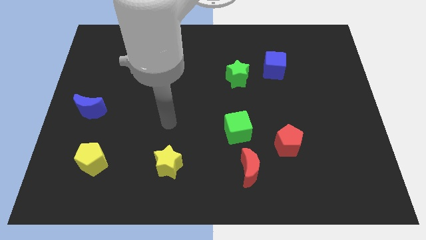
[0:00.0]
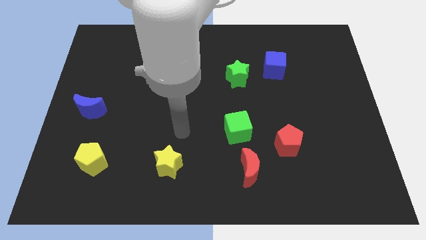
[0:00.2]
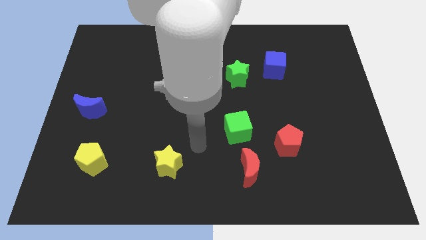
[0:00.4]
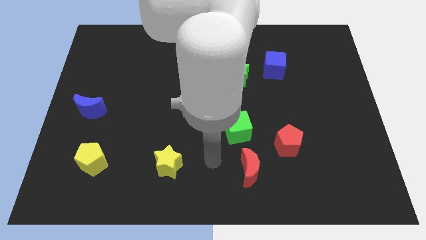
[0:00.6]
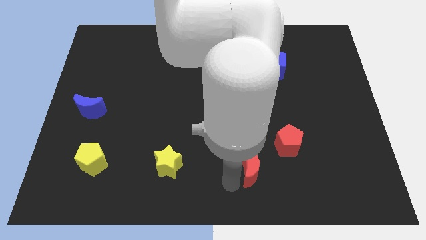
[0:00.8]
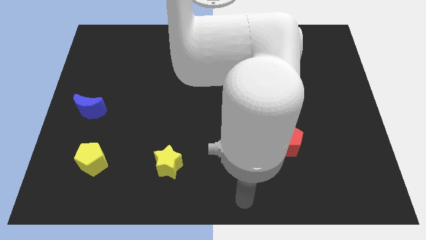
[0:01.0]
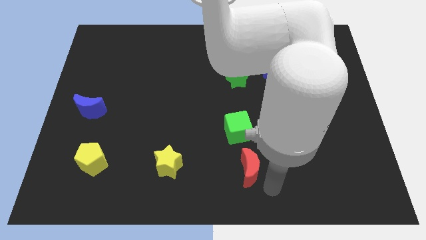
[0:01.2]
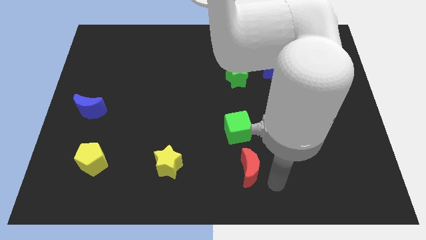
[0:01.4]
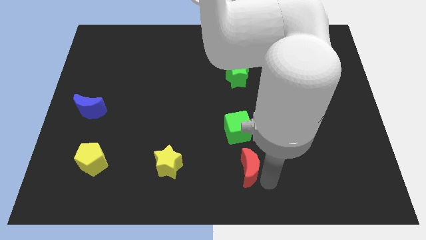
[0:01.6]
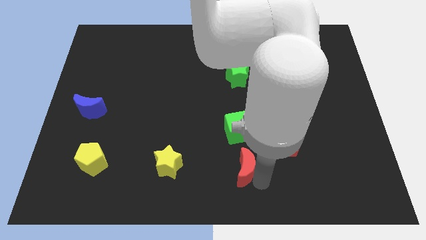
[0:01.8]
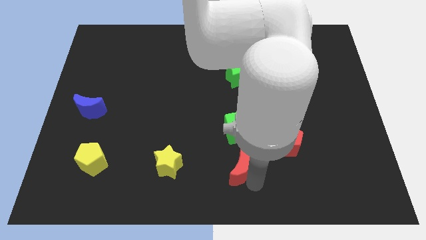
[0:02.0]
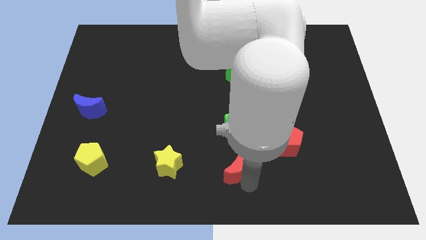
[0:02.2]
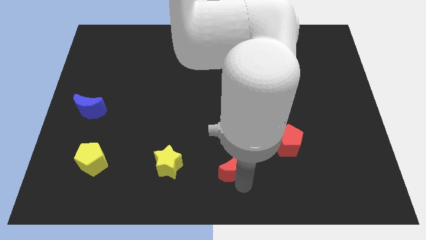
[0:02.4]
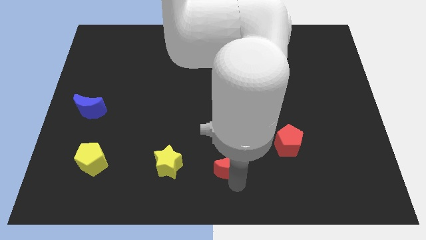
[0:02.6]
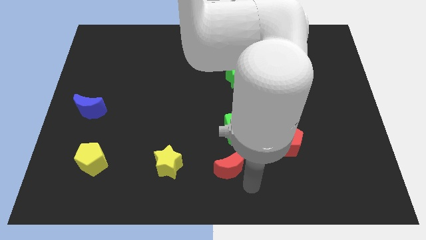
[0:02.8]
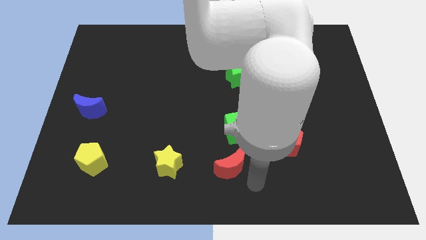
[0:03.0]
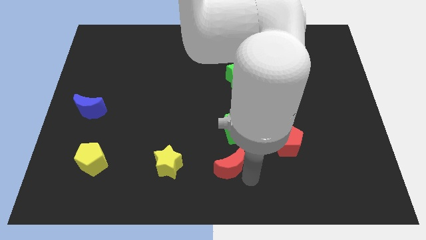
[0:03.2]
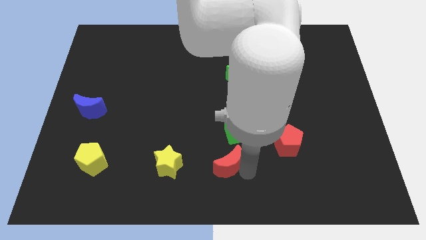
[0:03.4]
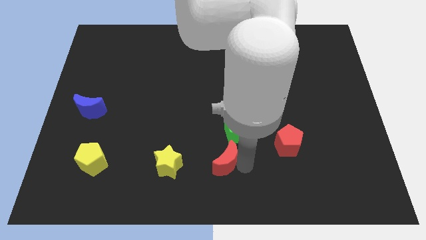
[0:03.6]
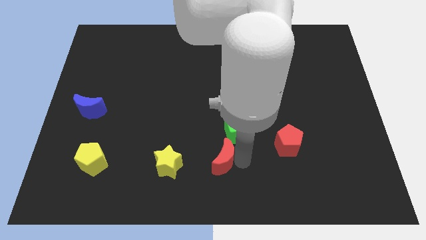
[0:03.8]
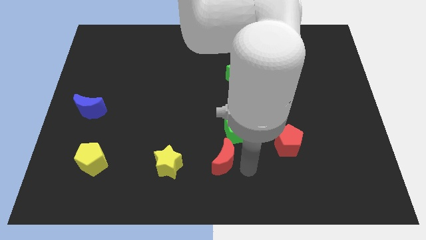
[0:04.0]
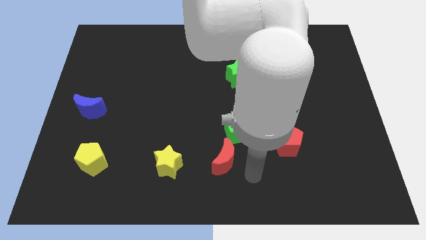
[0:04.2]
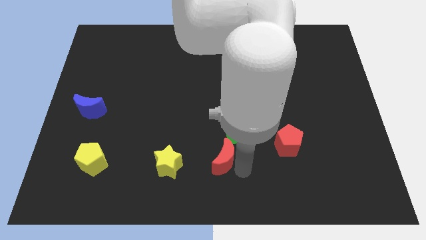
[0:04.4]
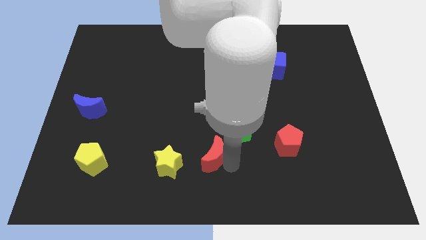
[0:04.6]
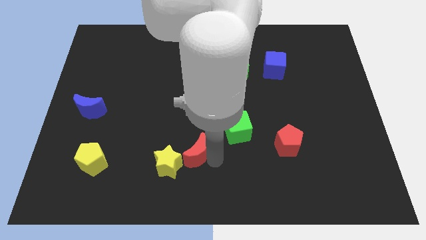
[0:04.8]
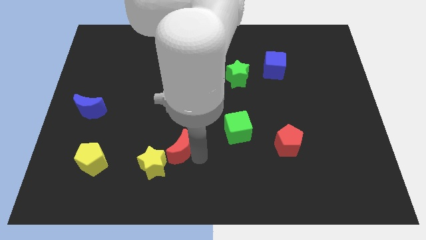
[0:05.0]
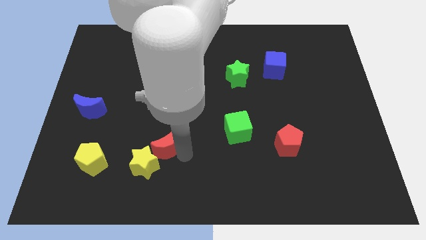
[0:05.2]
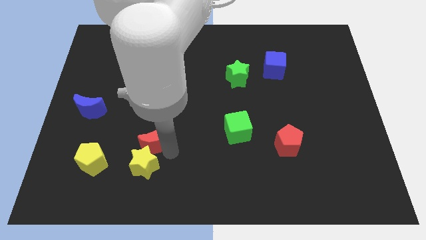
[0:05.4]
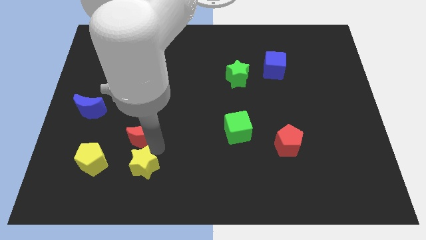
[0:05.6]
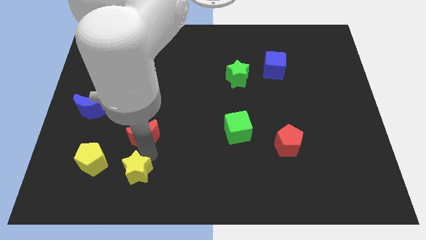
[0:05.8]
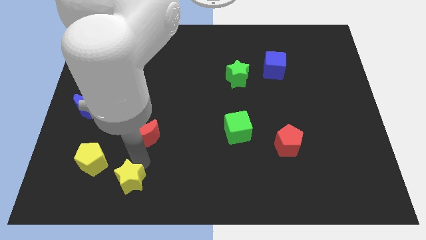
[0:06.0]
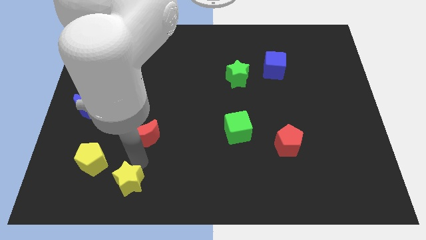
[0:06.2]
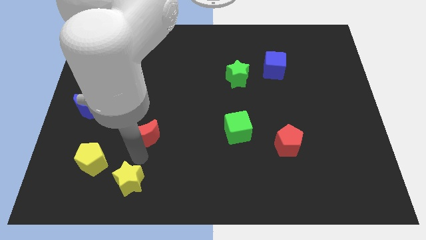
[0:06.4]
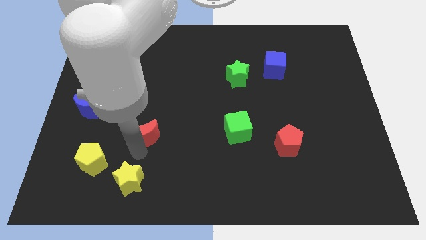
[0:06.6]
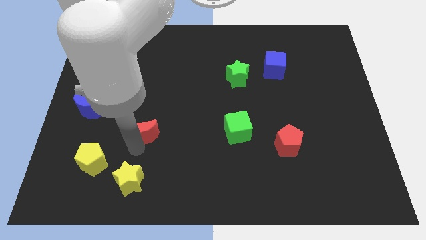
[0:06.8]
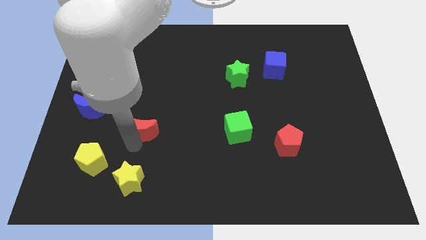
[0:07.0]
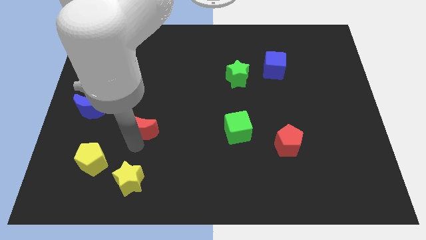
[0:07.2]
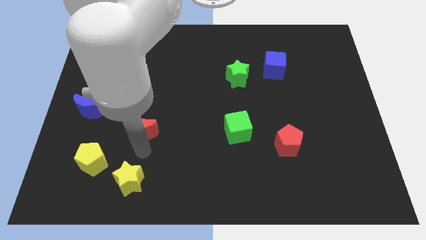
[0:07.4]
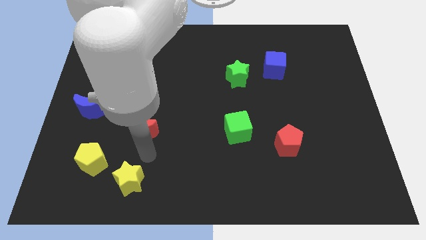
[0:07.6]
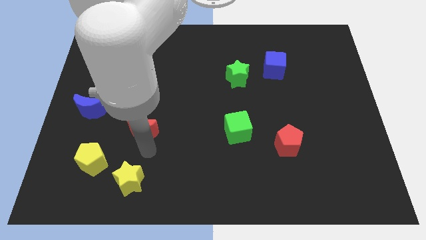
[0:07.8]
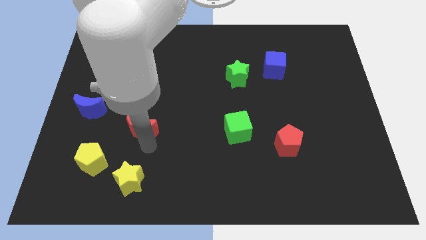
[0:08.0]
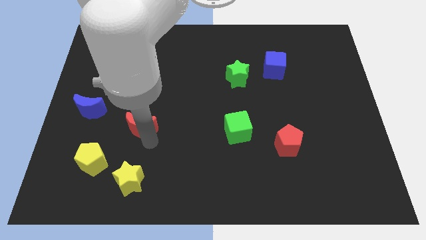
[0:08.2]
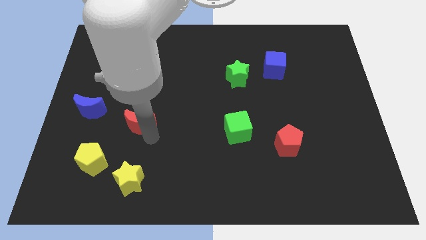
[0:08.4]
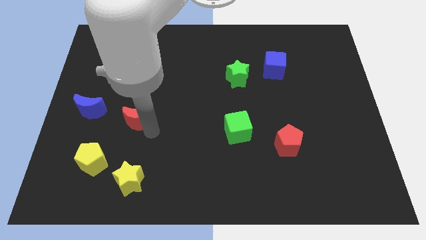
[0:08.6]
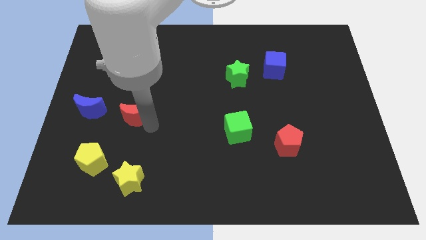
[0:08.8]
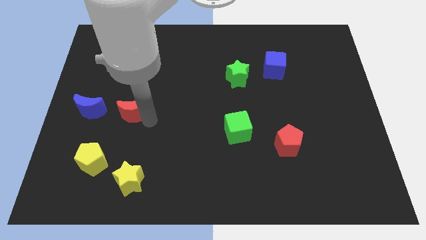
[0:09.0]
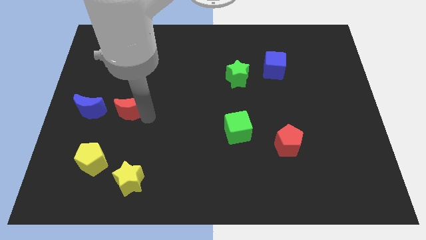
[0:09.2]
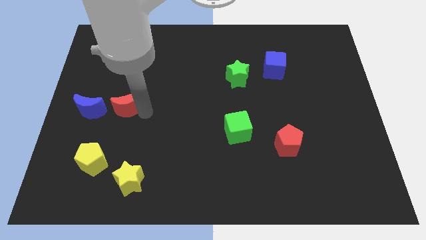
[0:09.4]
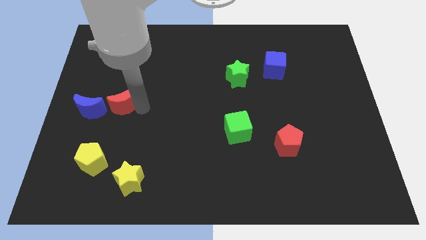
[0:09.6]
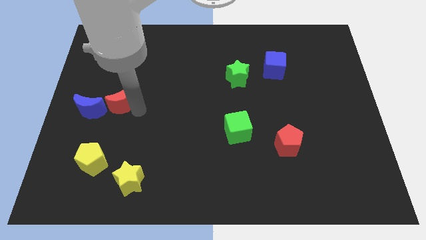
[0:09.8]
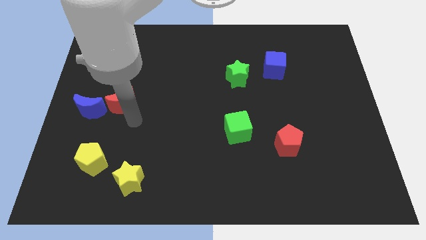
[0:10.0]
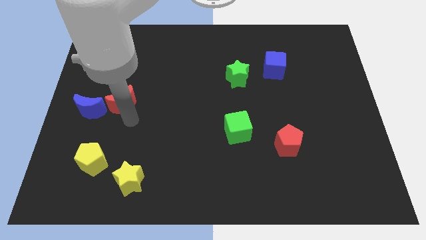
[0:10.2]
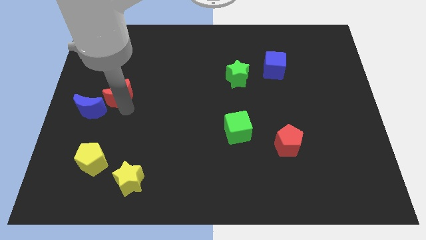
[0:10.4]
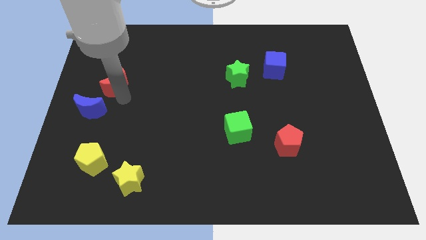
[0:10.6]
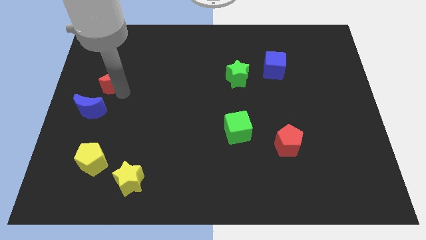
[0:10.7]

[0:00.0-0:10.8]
push the red moon above the blue moon

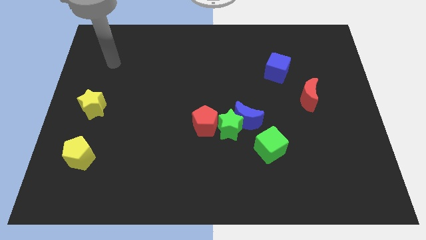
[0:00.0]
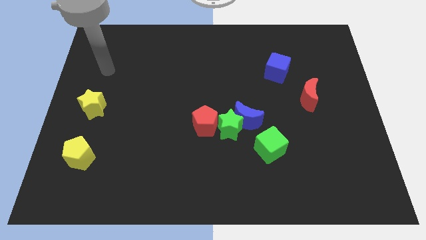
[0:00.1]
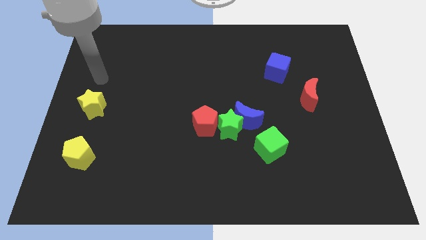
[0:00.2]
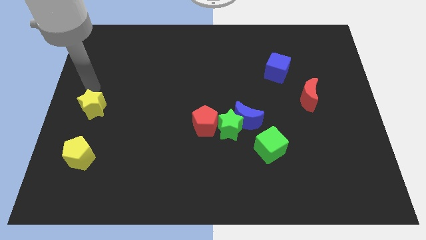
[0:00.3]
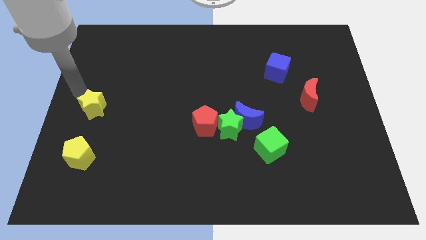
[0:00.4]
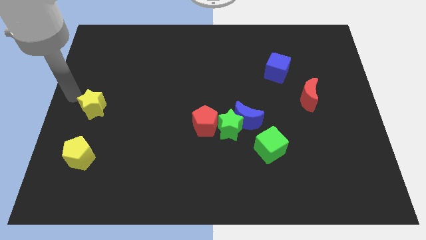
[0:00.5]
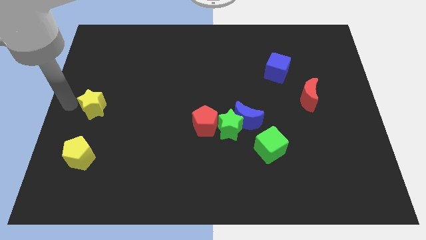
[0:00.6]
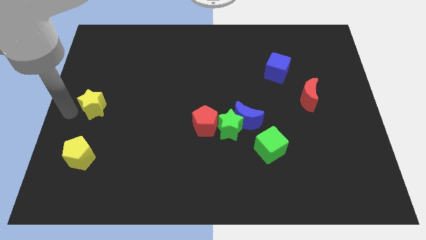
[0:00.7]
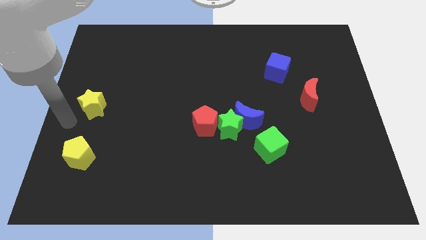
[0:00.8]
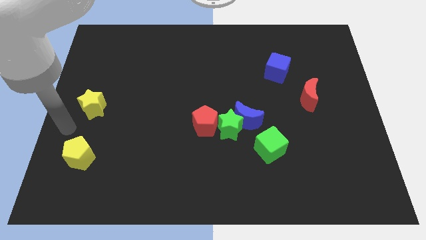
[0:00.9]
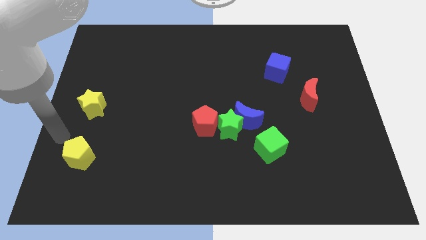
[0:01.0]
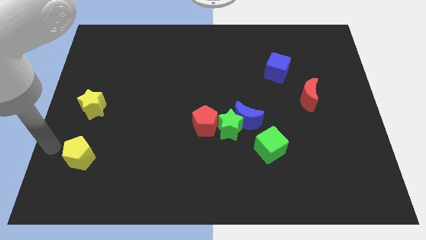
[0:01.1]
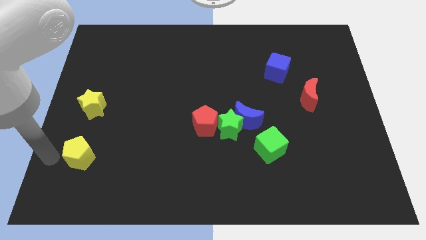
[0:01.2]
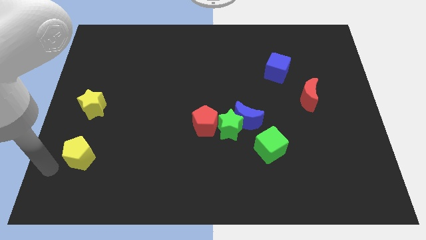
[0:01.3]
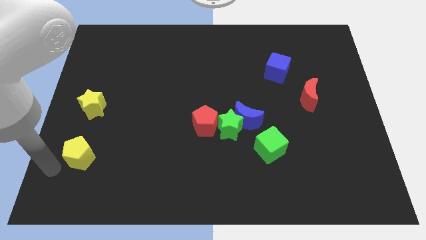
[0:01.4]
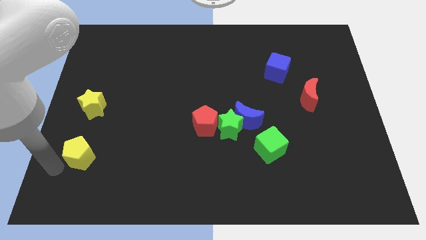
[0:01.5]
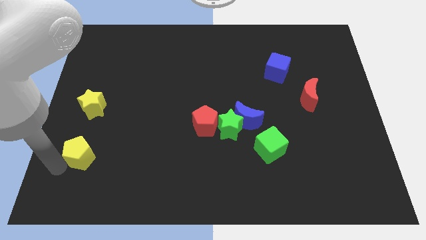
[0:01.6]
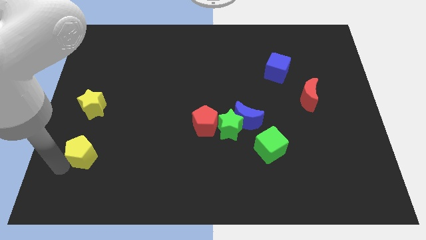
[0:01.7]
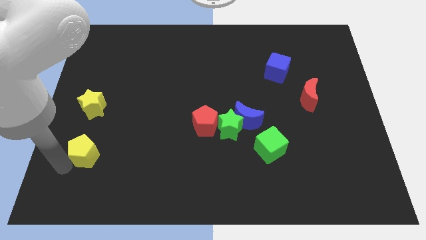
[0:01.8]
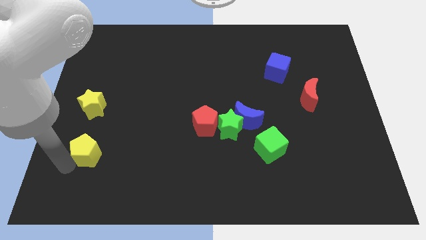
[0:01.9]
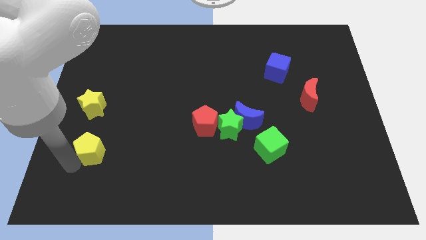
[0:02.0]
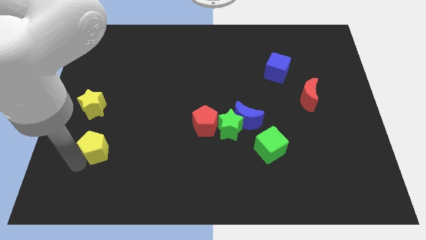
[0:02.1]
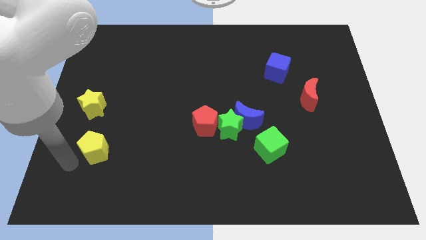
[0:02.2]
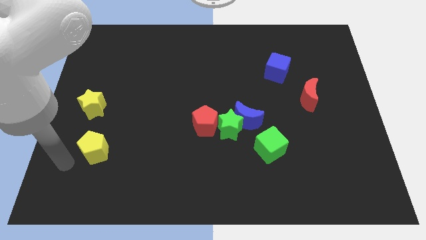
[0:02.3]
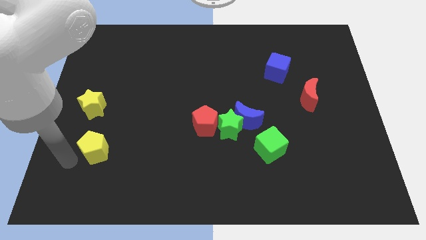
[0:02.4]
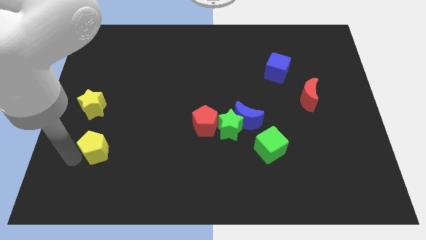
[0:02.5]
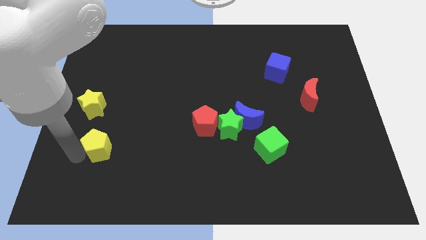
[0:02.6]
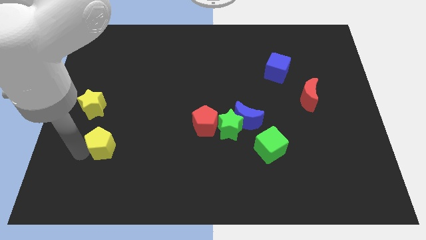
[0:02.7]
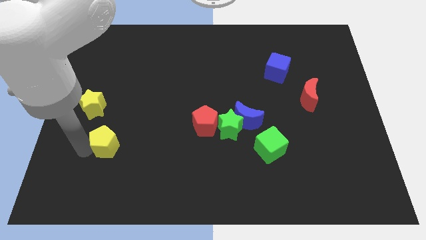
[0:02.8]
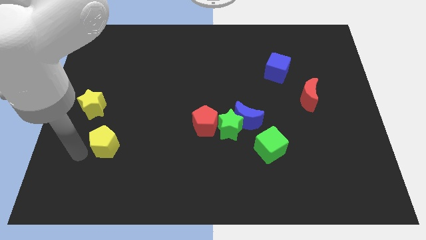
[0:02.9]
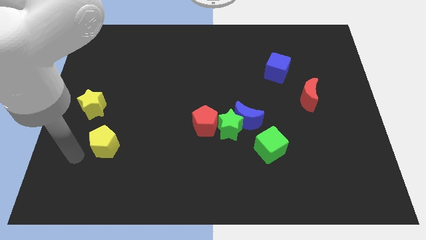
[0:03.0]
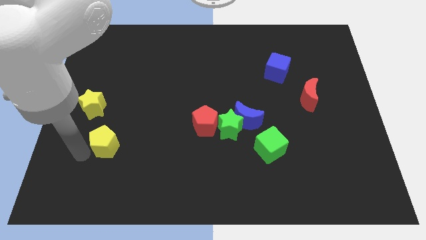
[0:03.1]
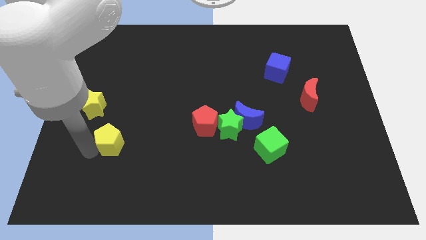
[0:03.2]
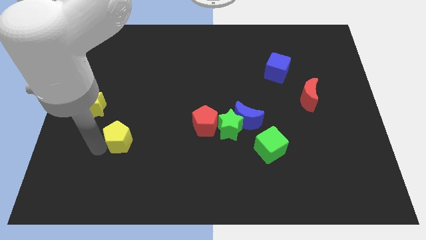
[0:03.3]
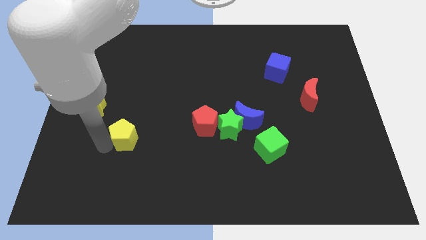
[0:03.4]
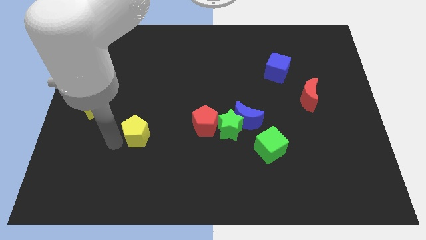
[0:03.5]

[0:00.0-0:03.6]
slide the yellow pentagon to the left side of the red pentagon
